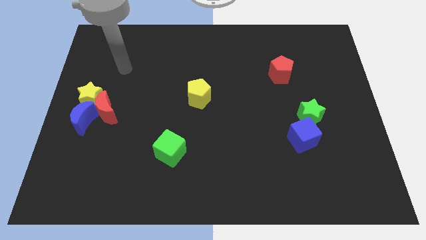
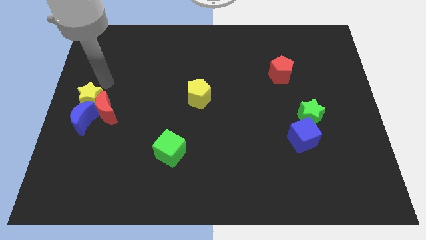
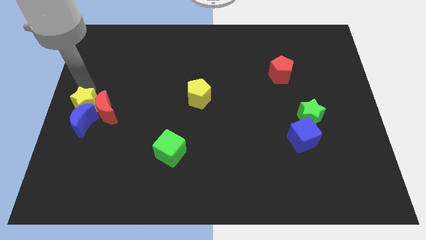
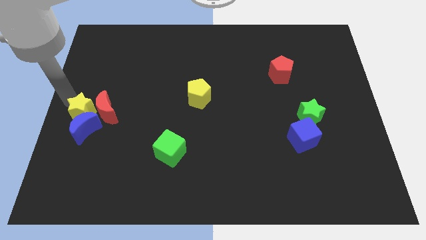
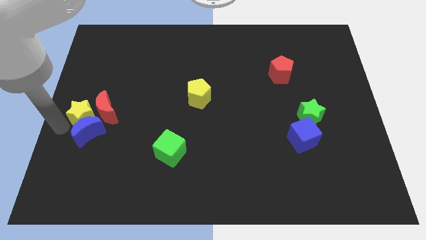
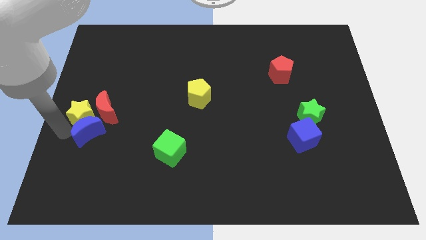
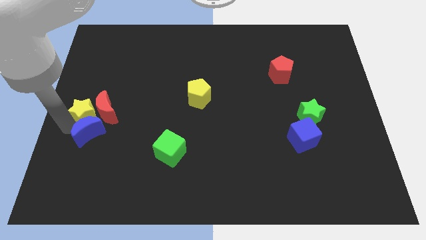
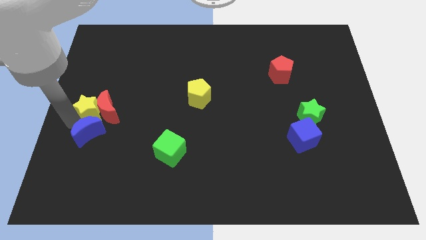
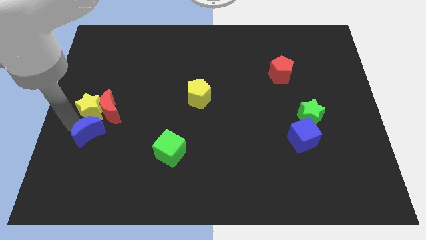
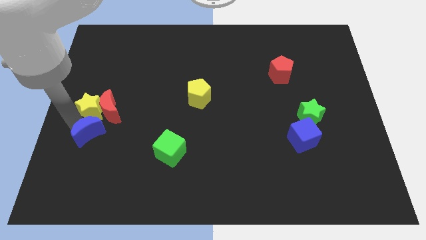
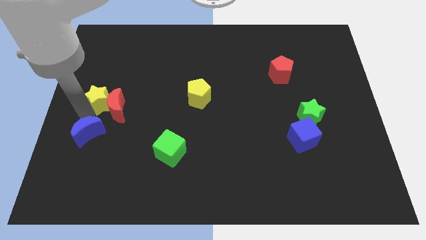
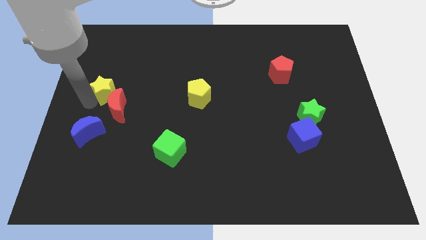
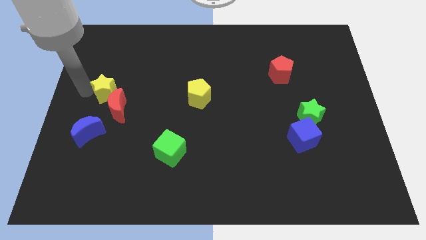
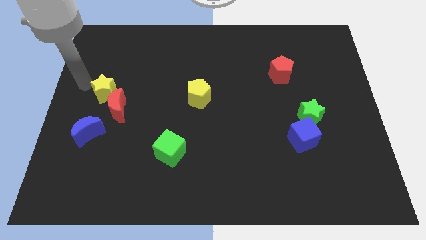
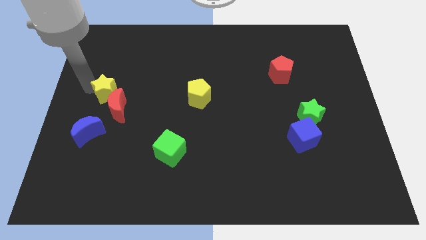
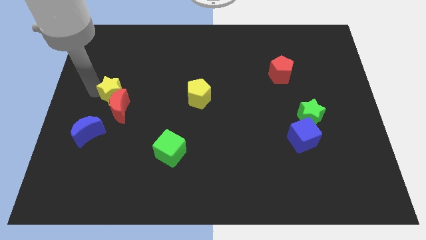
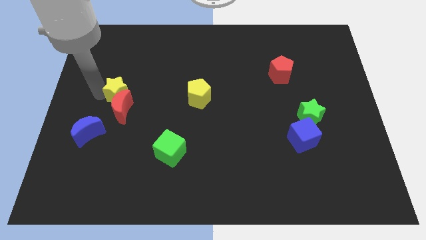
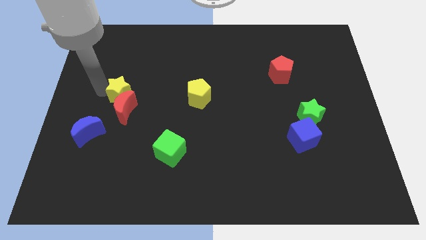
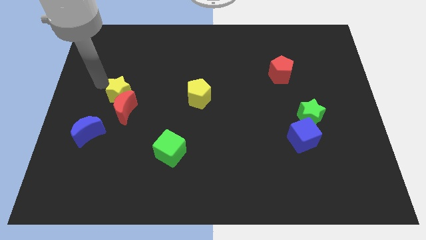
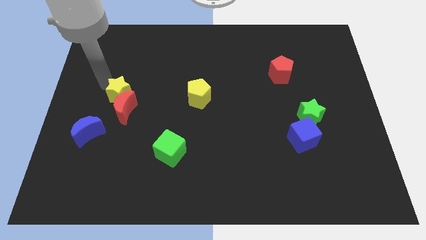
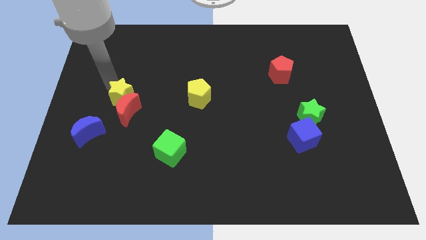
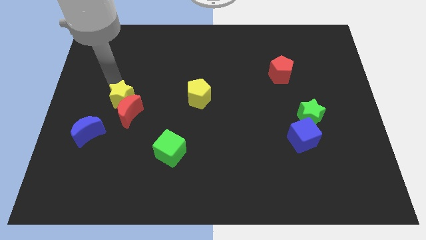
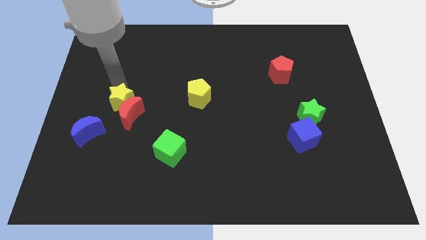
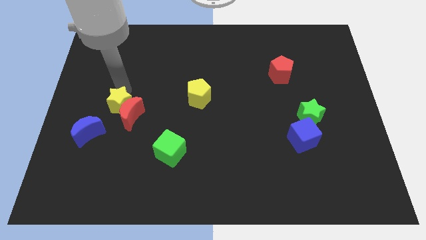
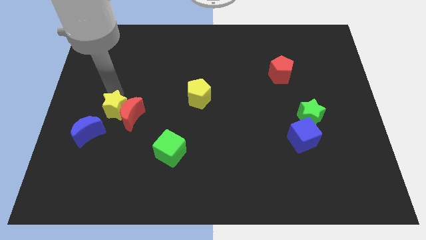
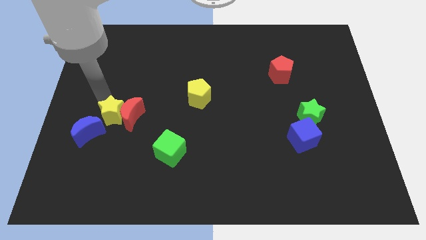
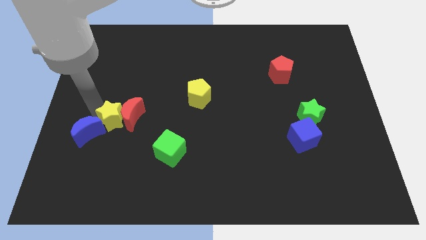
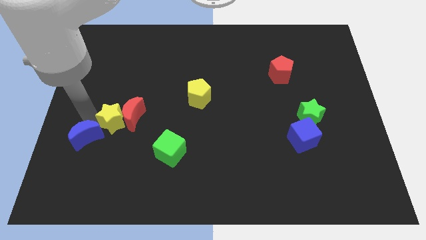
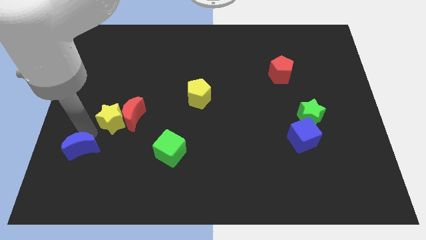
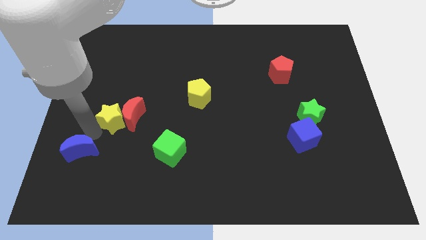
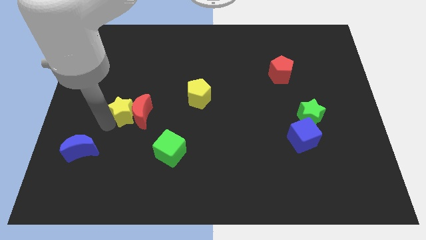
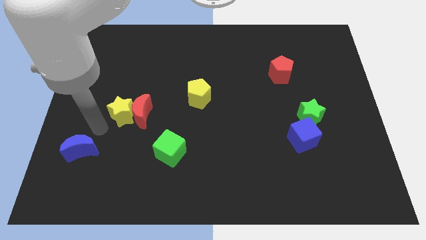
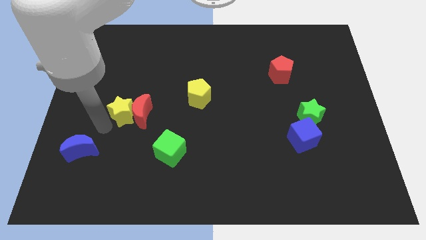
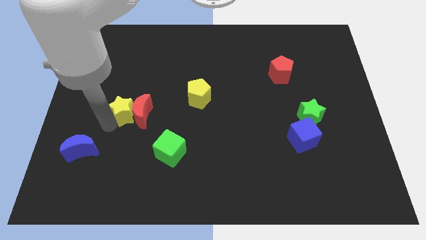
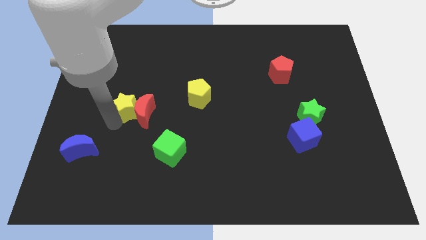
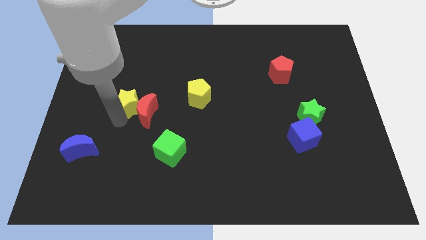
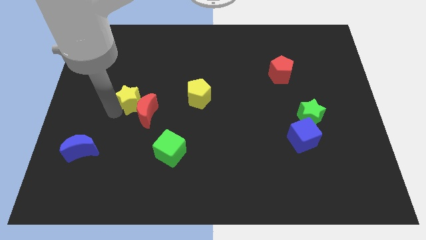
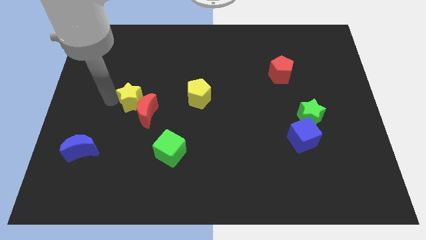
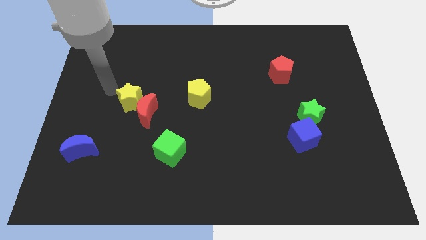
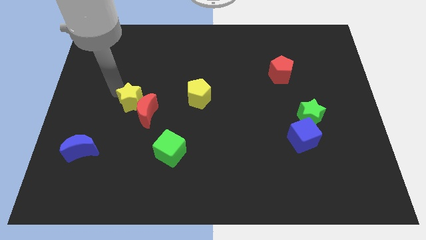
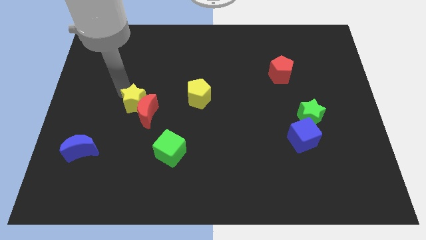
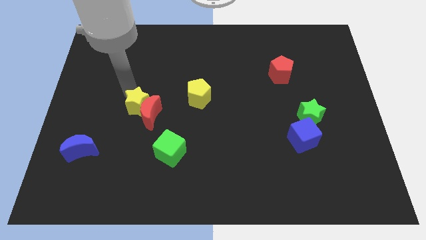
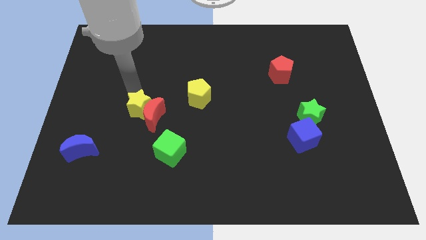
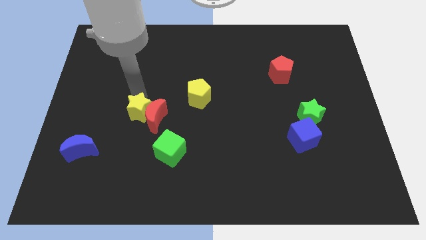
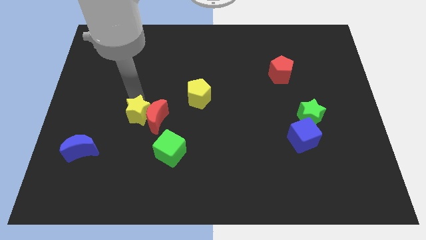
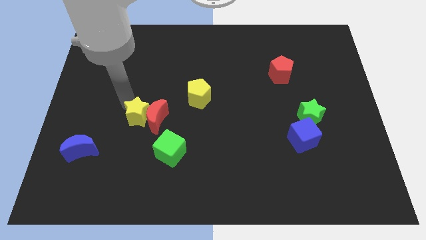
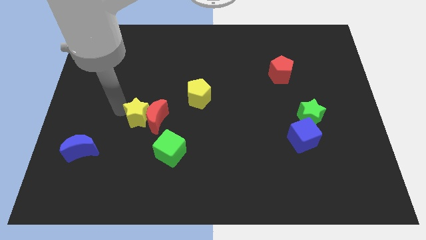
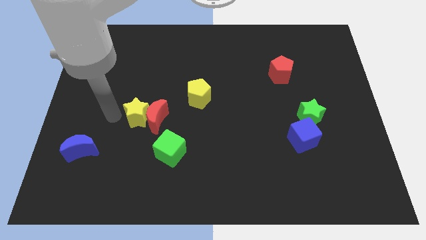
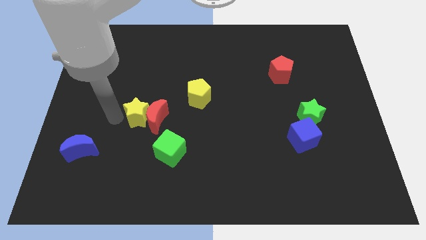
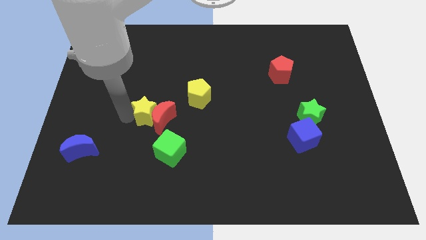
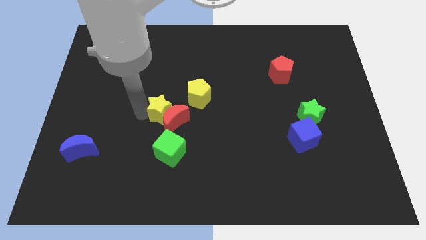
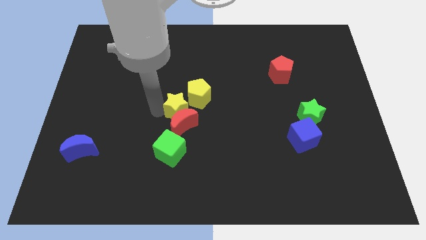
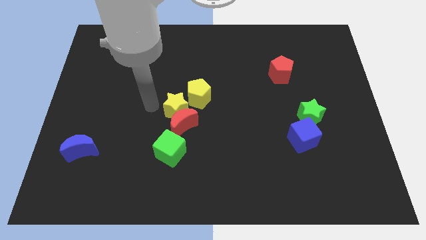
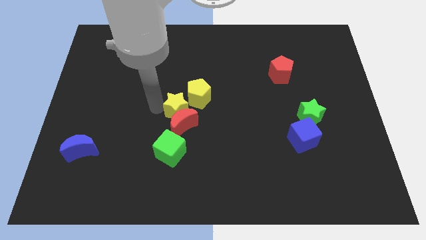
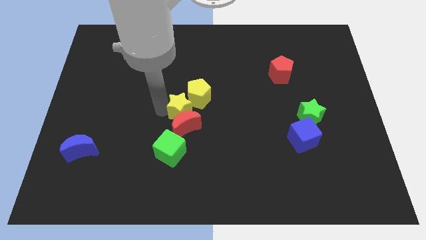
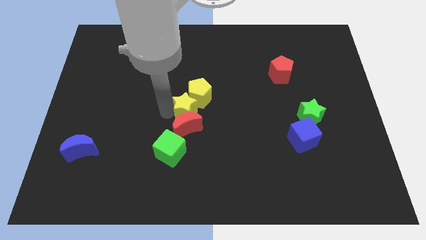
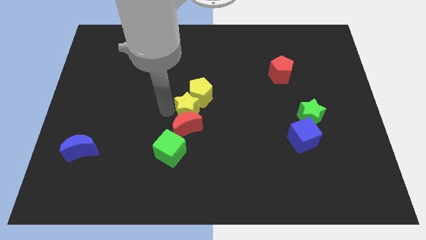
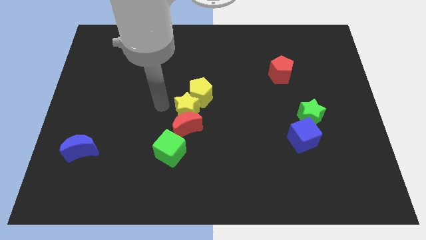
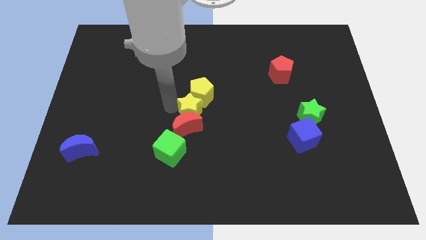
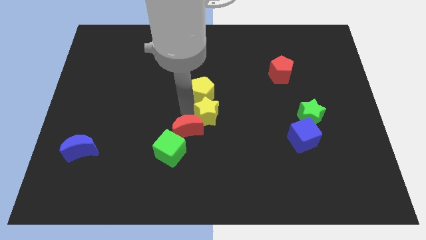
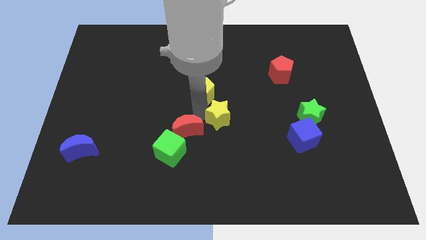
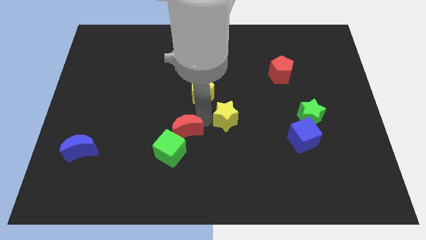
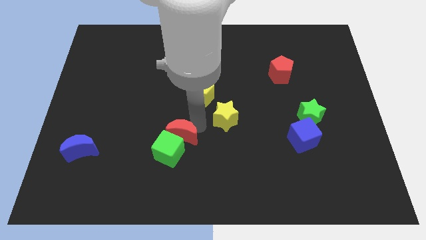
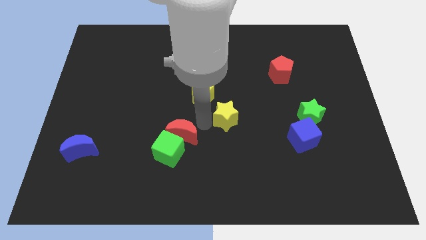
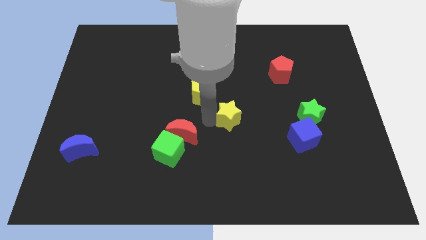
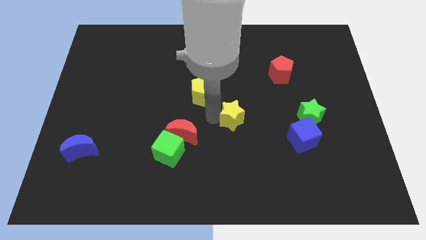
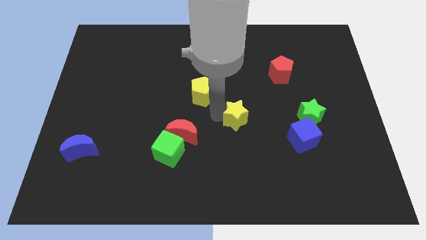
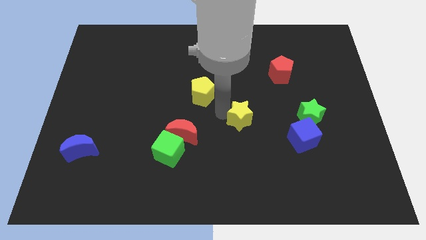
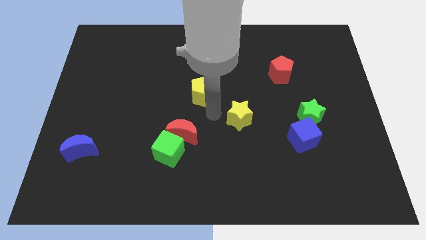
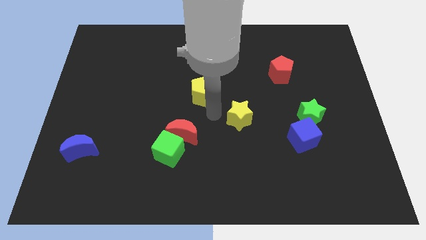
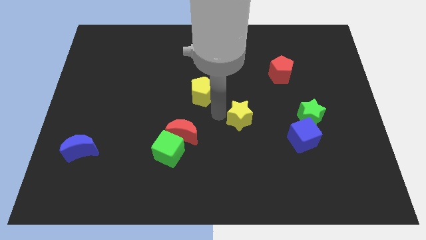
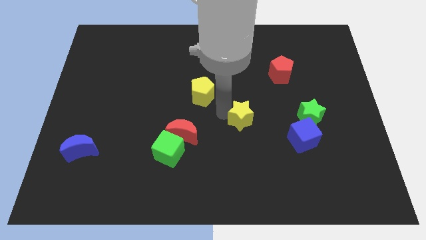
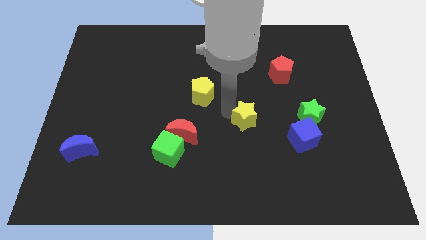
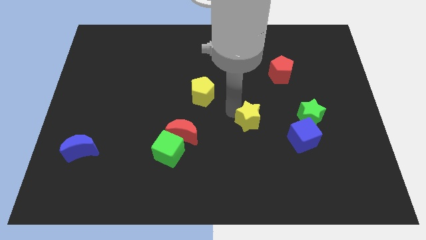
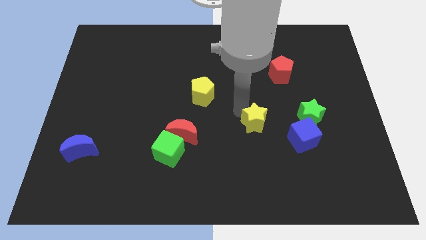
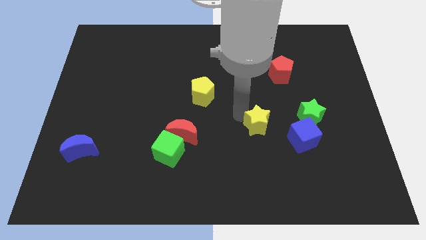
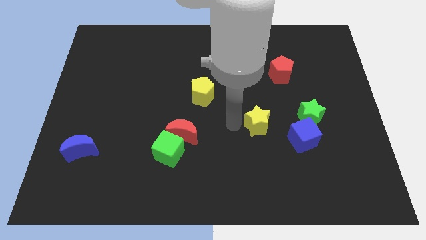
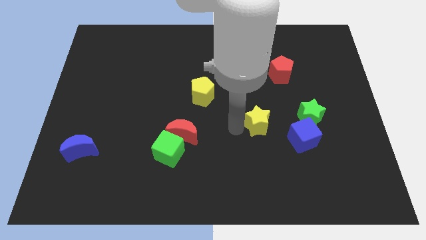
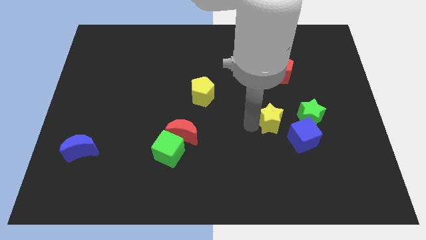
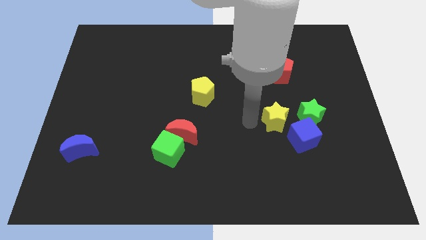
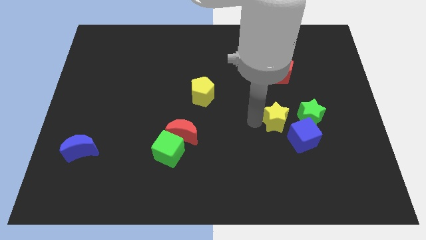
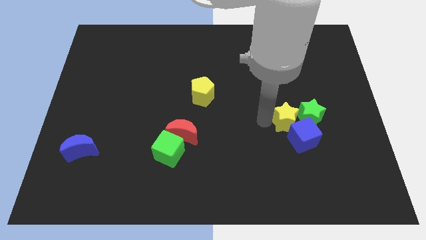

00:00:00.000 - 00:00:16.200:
move the yellow star to the green star
